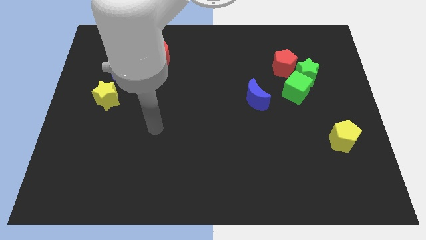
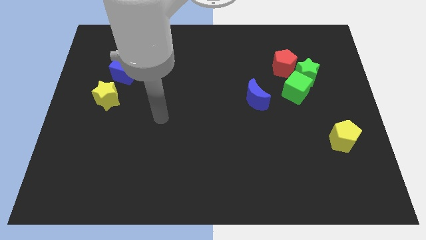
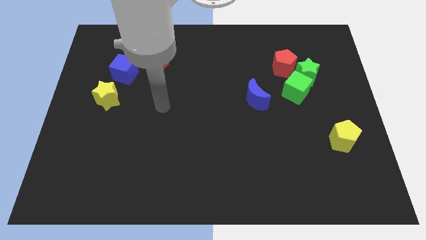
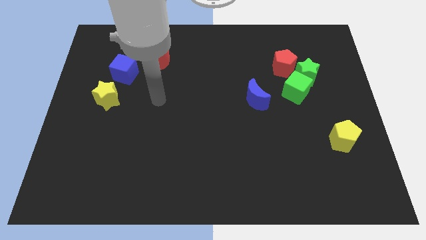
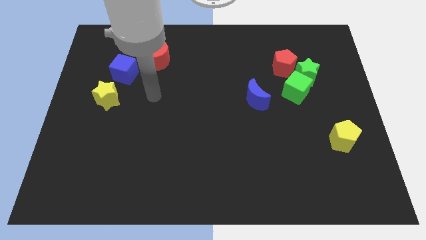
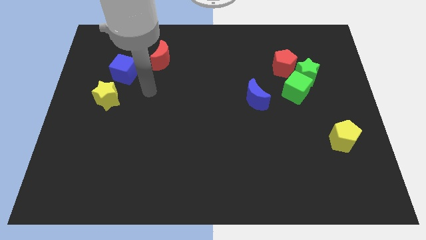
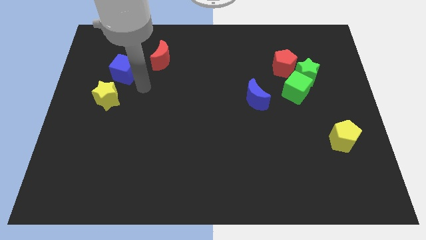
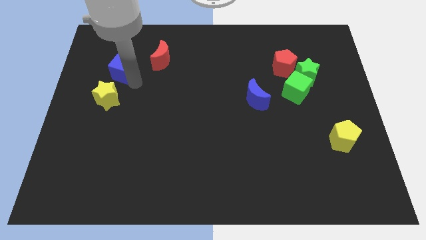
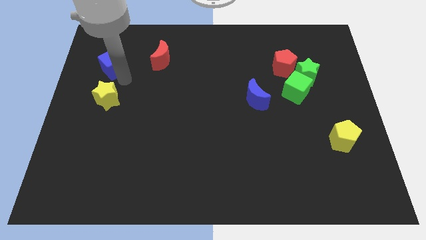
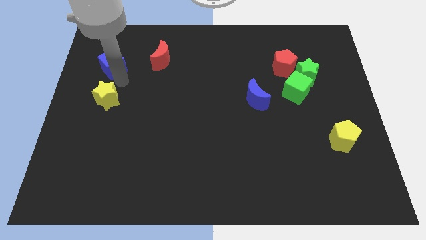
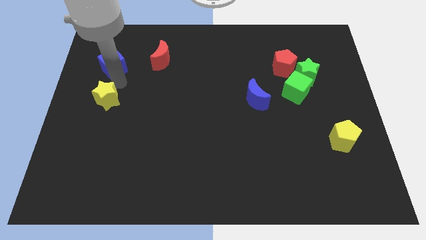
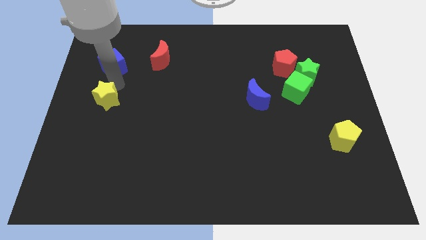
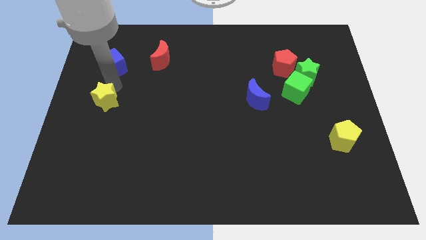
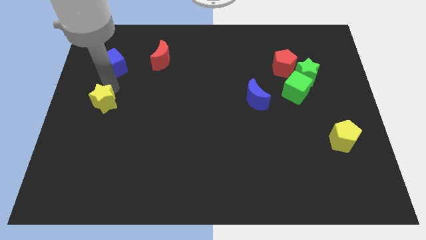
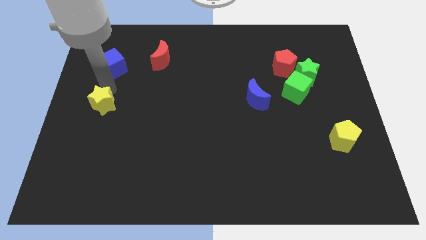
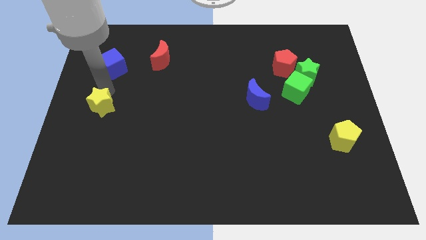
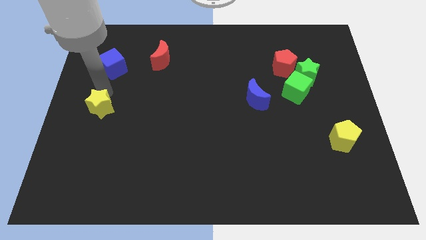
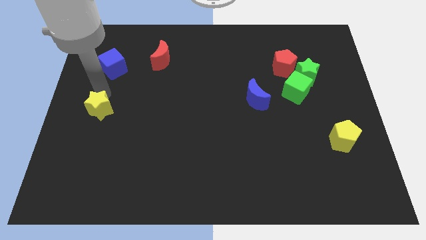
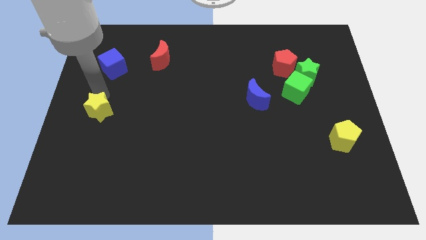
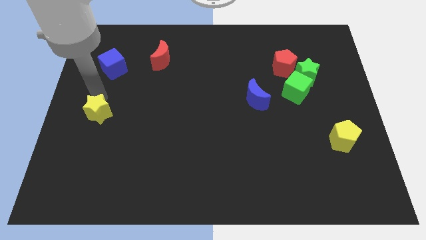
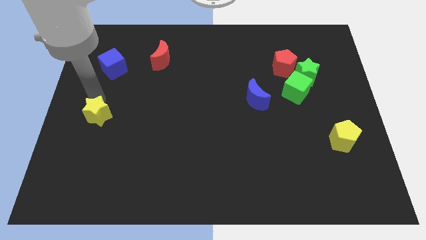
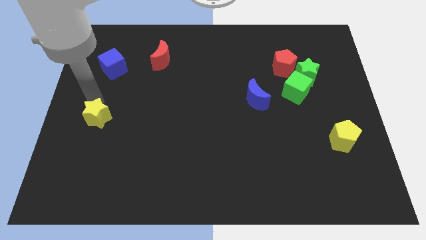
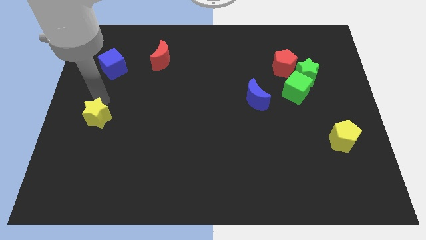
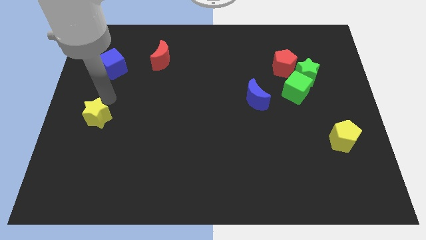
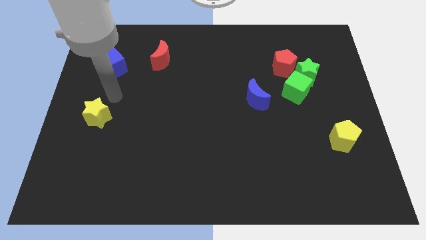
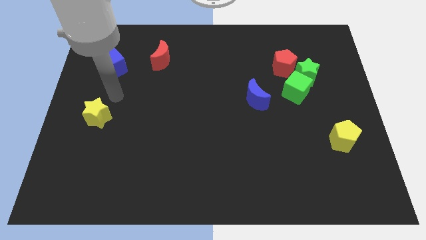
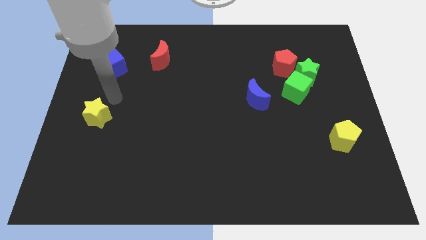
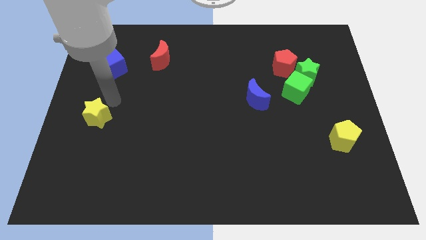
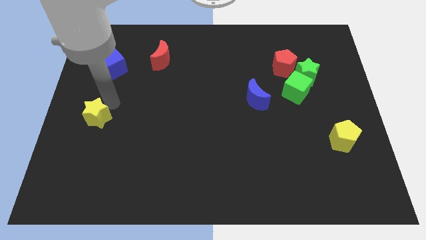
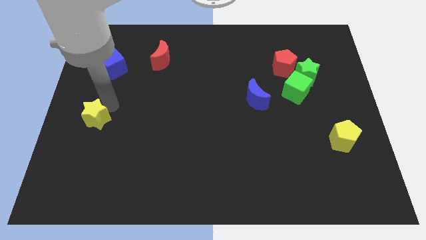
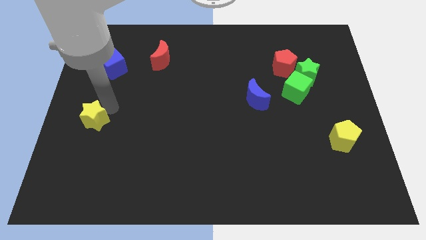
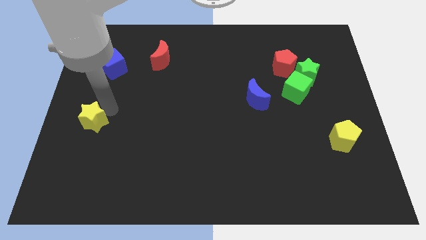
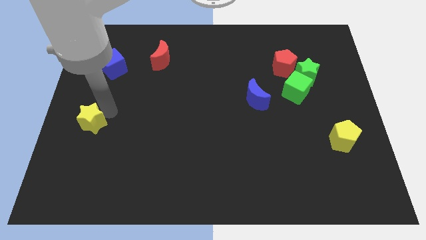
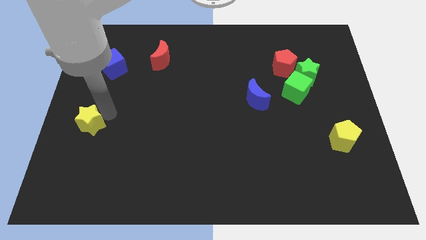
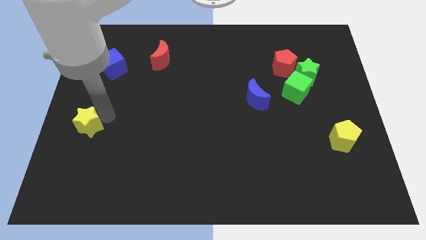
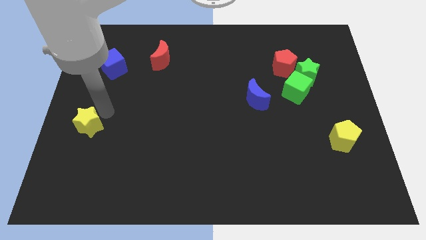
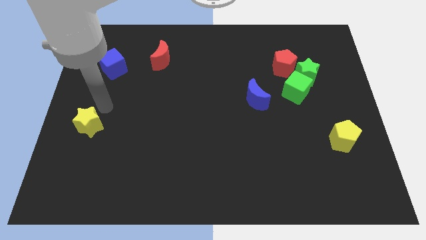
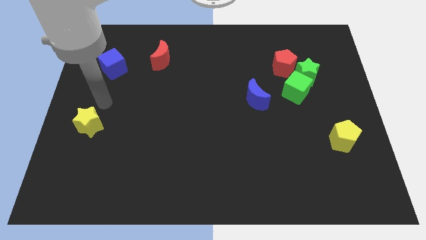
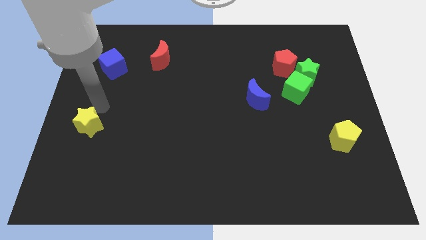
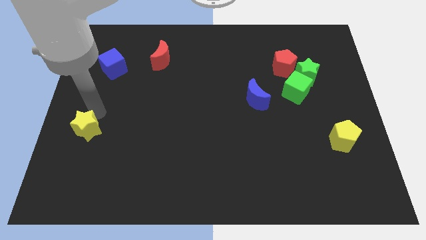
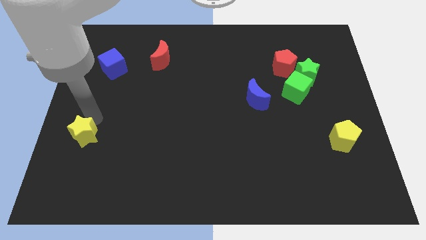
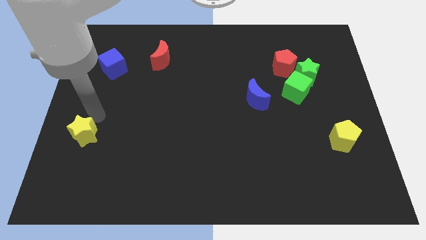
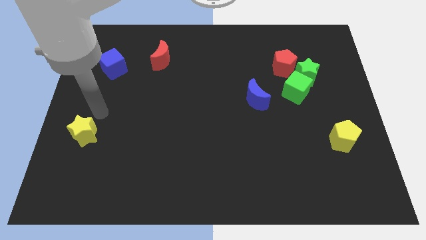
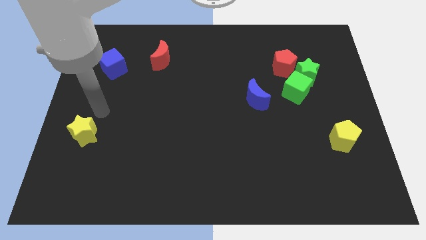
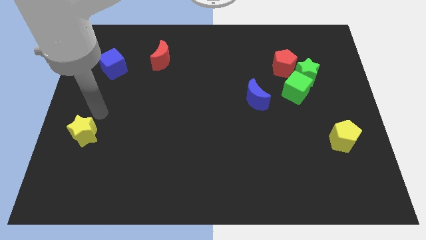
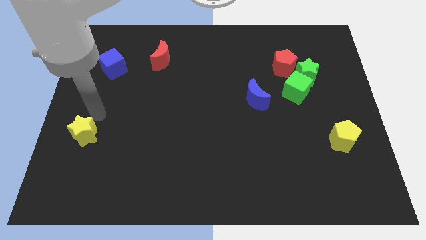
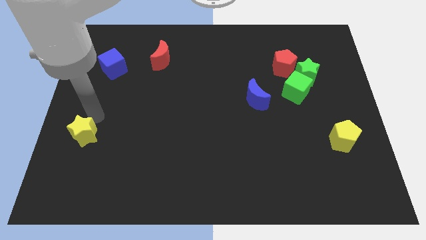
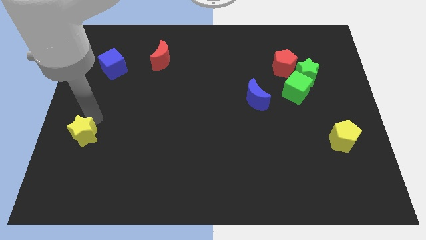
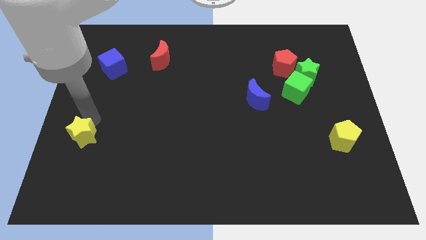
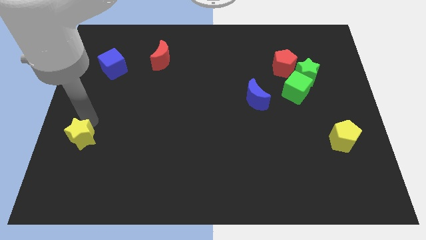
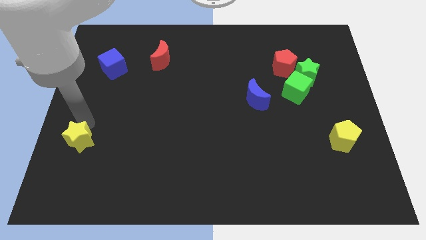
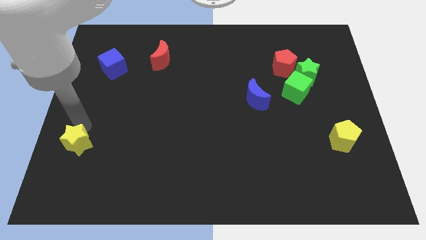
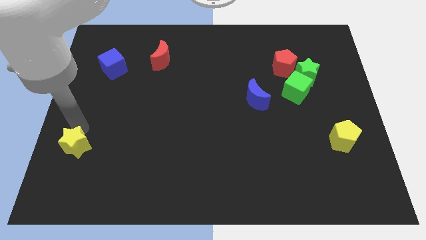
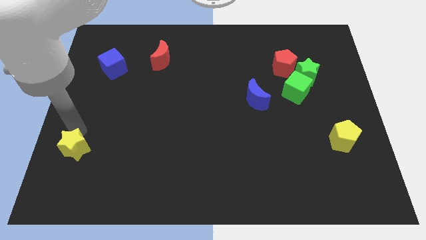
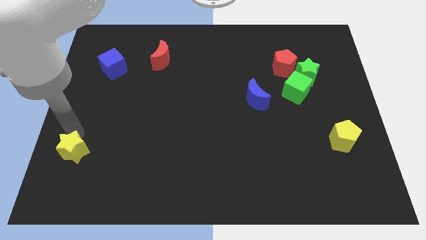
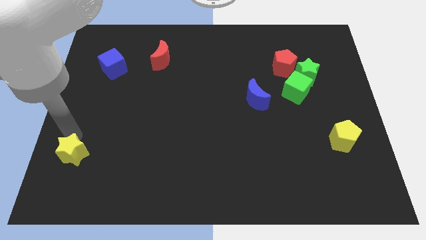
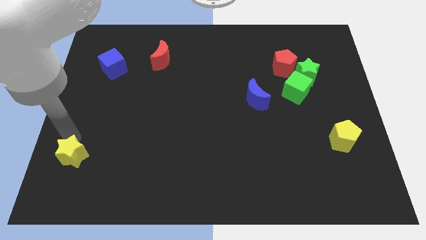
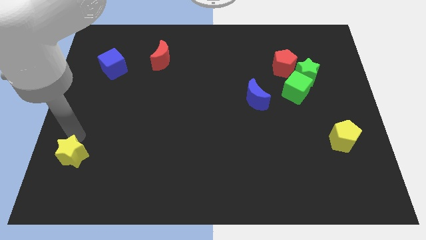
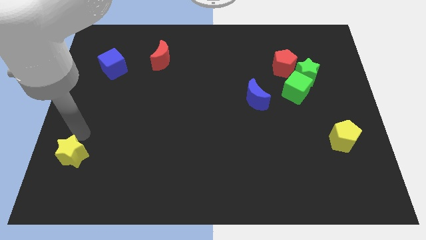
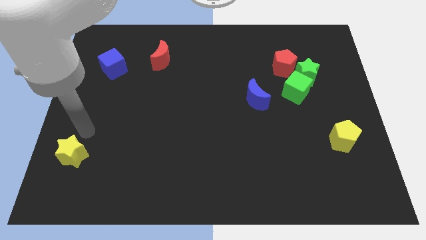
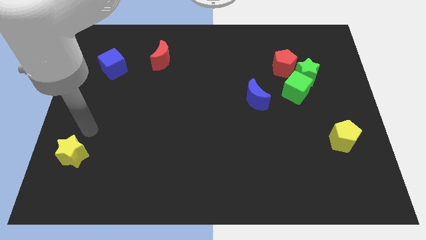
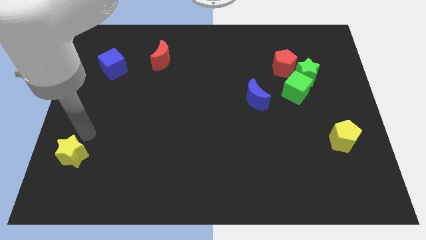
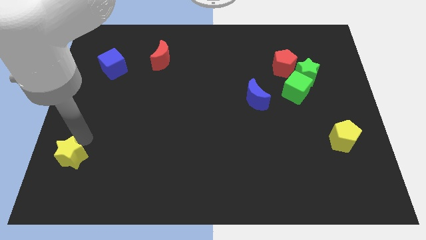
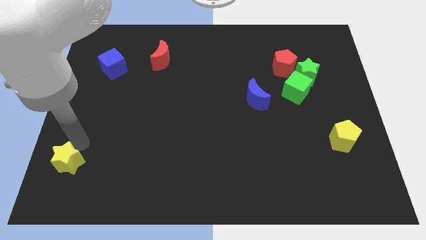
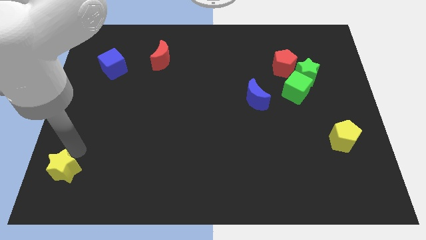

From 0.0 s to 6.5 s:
put the yellow star to the bottom left
